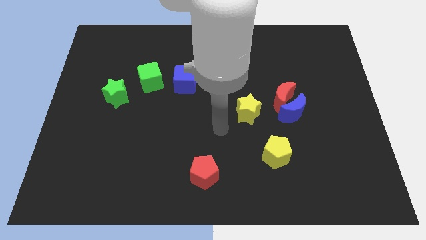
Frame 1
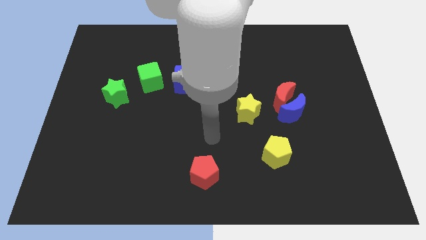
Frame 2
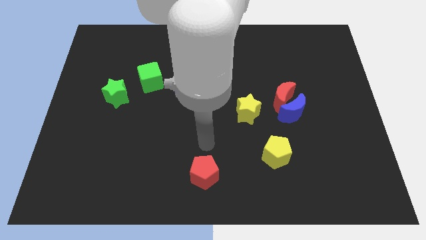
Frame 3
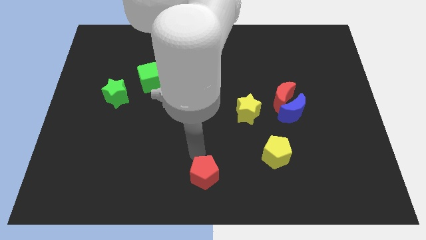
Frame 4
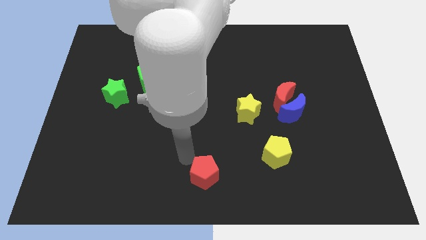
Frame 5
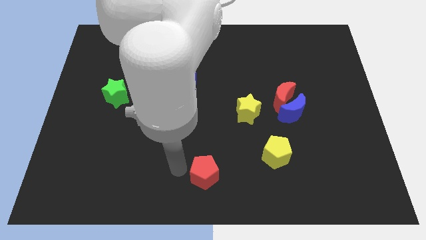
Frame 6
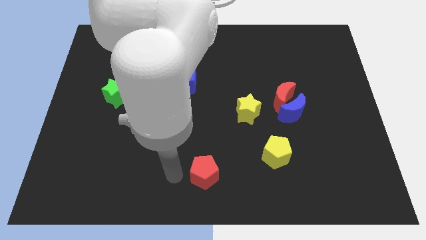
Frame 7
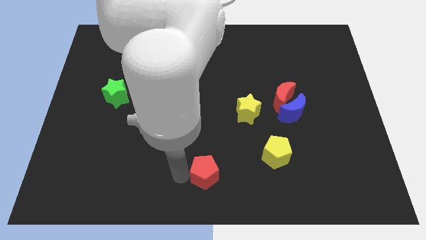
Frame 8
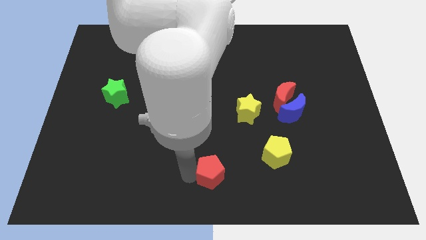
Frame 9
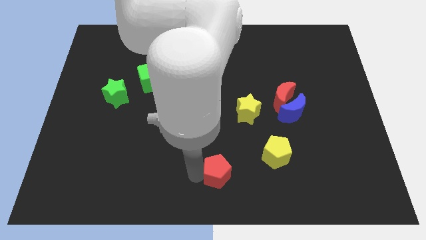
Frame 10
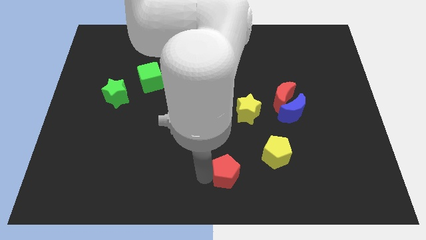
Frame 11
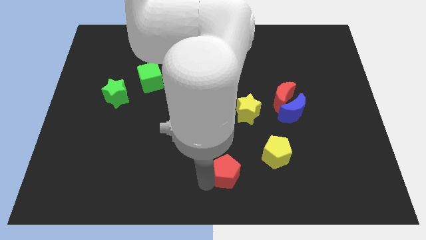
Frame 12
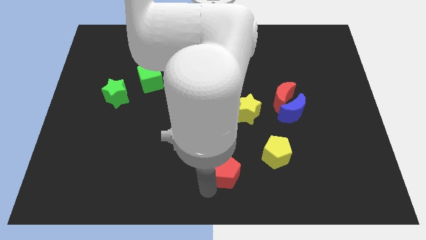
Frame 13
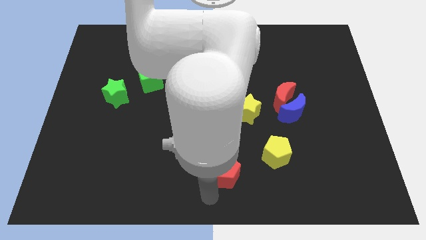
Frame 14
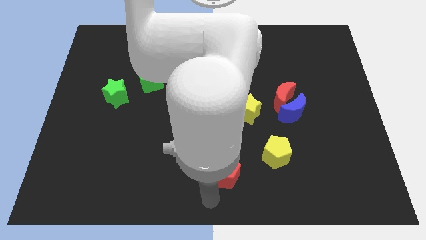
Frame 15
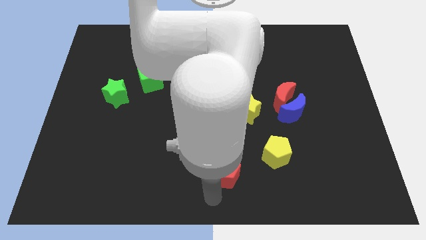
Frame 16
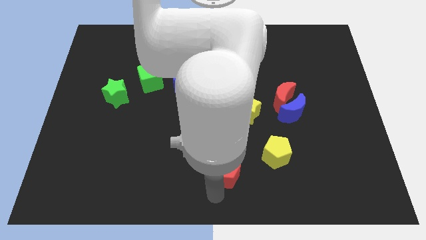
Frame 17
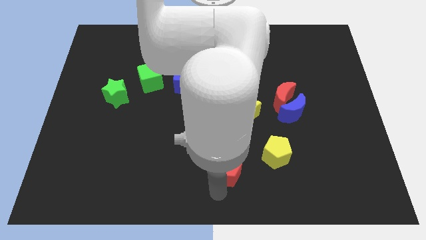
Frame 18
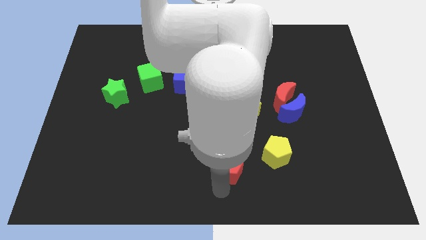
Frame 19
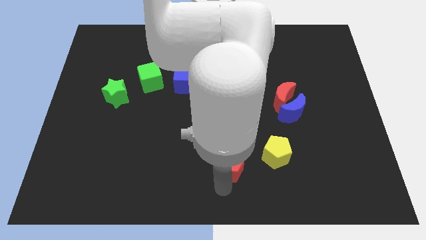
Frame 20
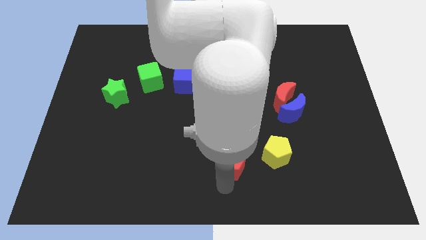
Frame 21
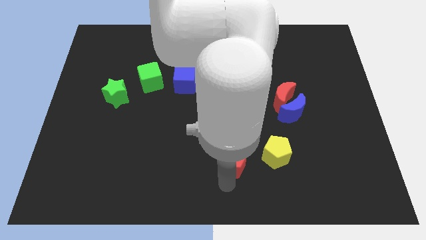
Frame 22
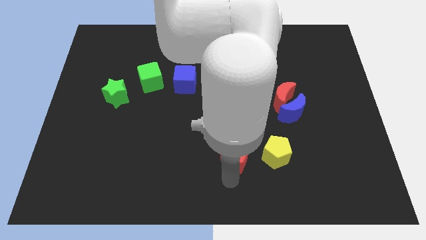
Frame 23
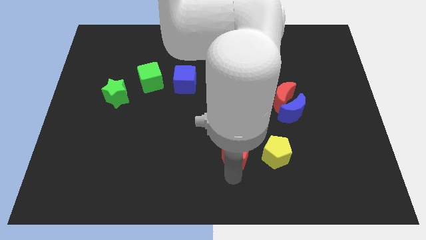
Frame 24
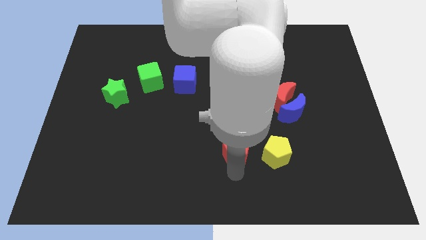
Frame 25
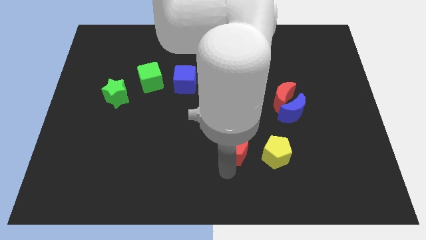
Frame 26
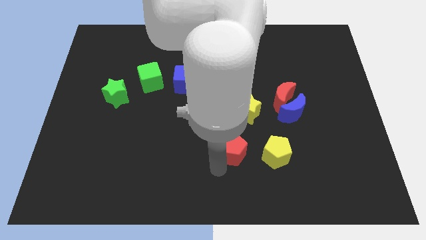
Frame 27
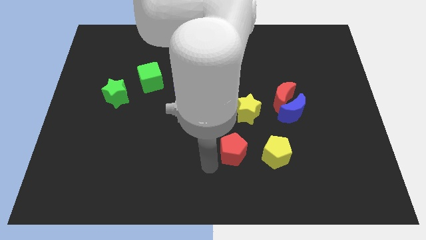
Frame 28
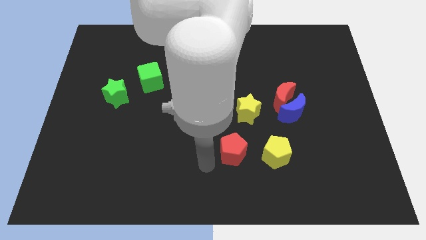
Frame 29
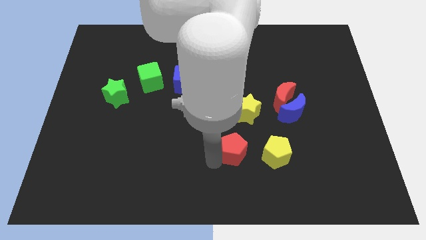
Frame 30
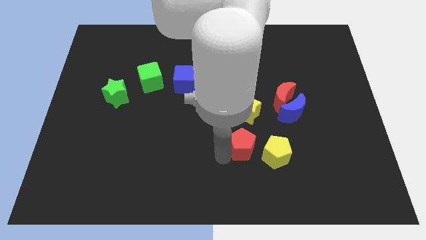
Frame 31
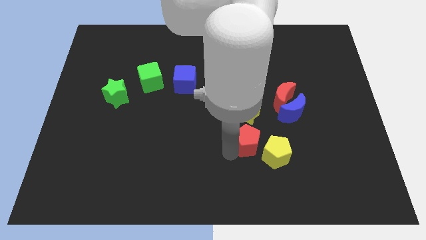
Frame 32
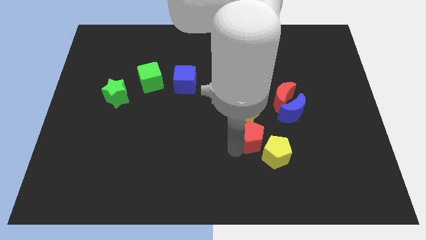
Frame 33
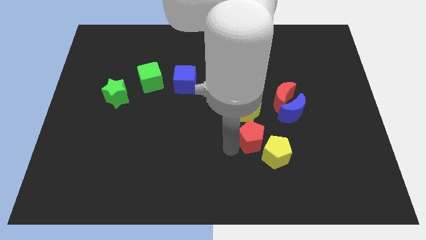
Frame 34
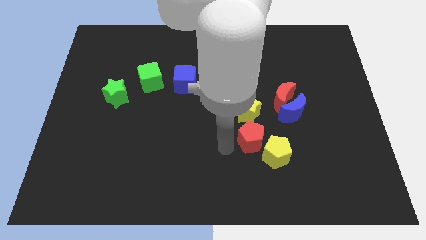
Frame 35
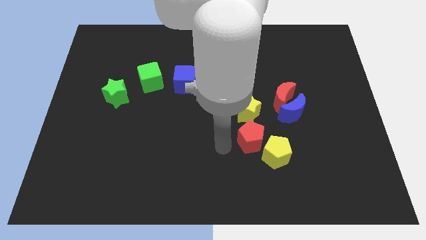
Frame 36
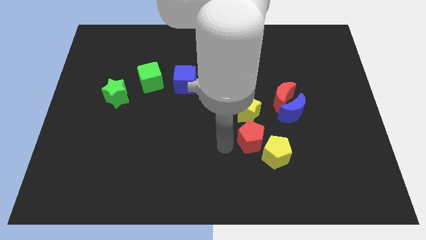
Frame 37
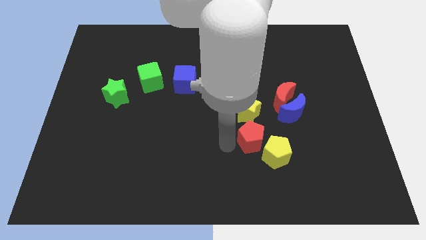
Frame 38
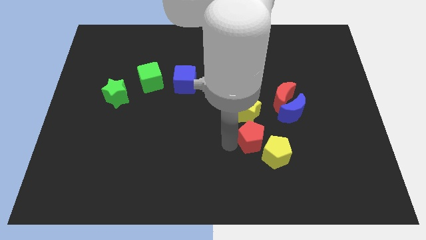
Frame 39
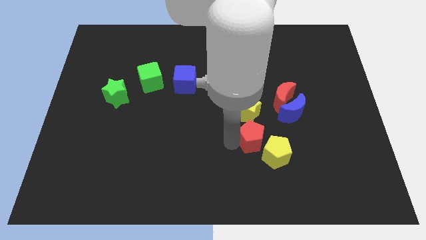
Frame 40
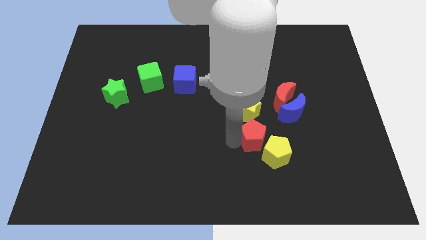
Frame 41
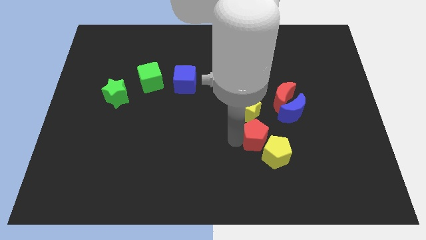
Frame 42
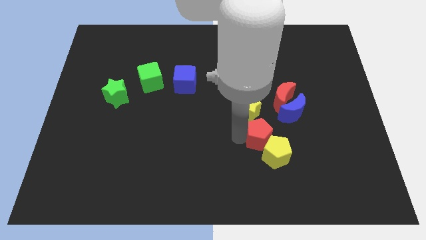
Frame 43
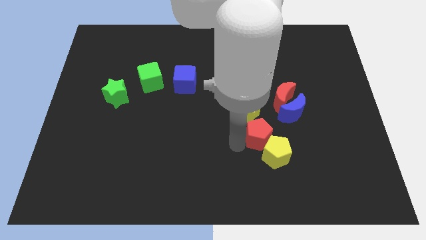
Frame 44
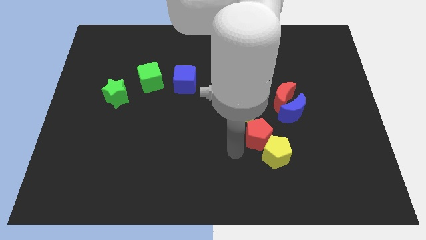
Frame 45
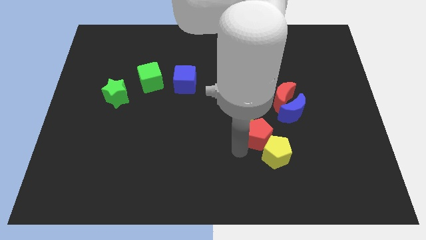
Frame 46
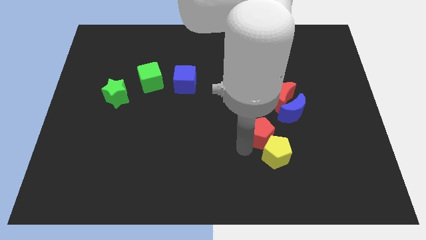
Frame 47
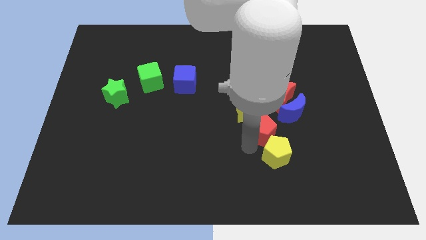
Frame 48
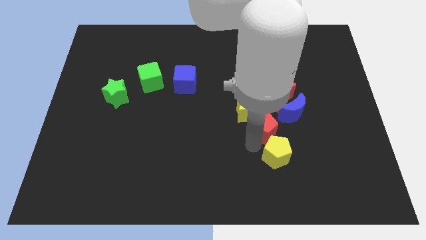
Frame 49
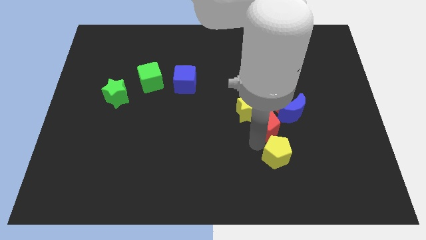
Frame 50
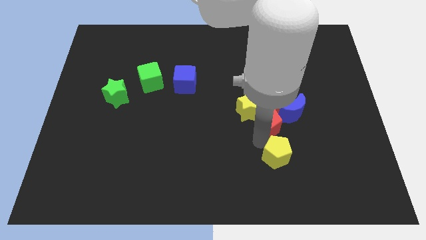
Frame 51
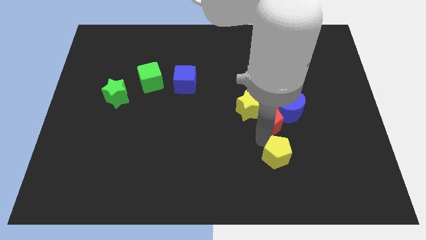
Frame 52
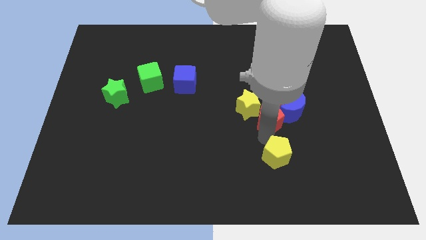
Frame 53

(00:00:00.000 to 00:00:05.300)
slide the red pentagon to the blue moon
